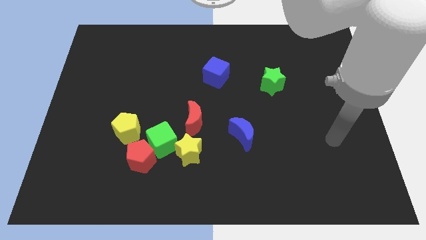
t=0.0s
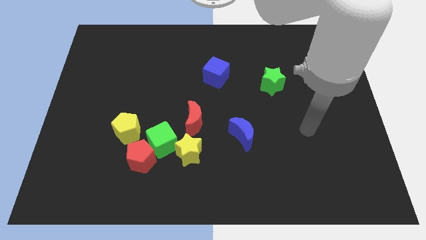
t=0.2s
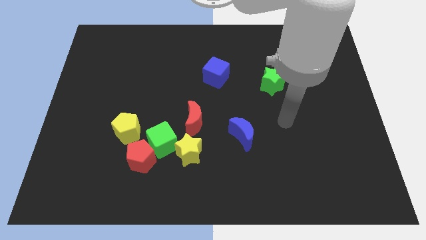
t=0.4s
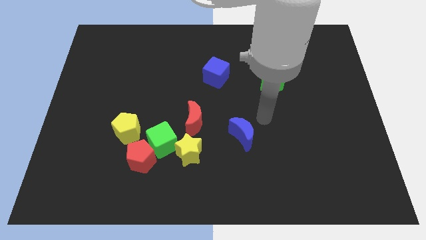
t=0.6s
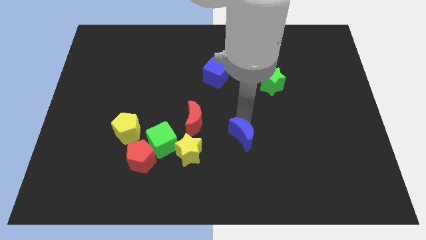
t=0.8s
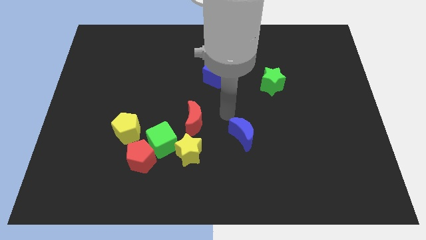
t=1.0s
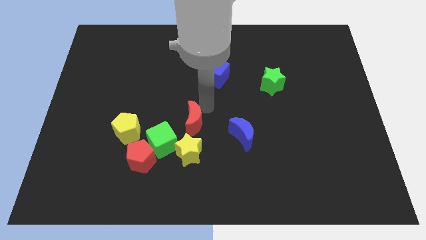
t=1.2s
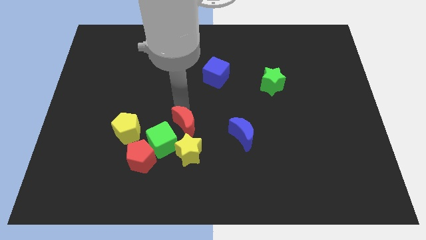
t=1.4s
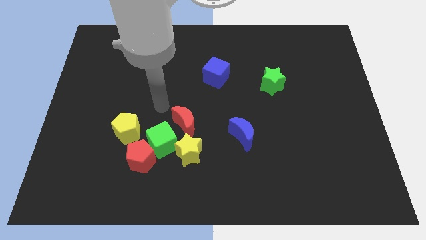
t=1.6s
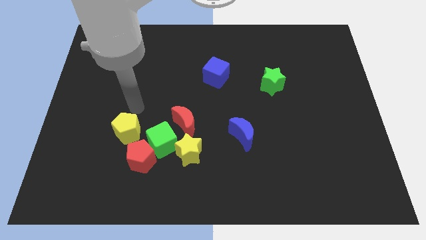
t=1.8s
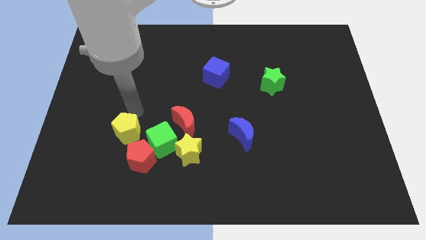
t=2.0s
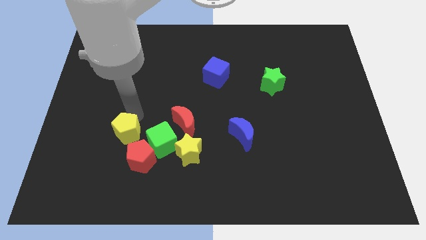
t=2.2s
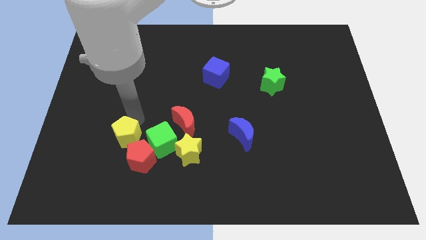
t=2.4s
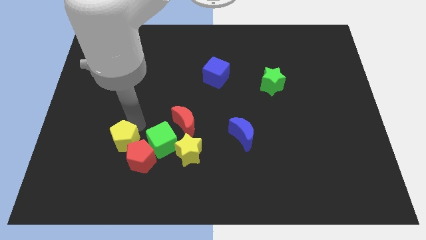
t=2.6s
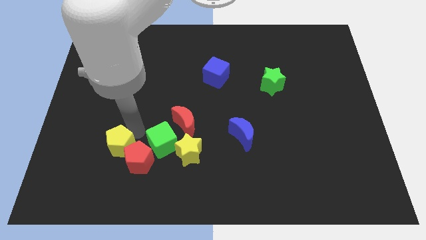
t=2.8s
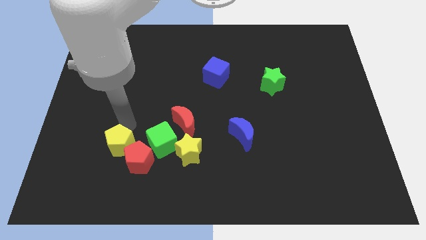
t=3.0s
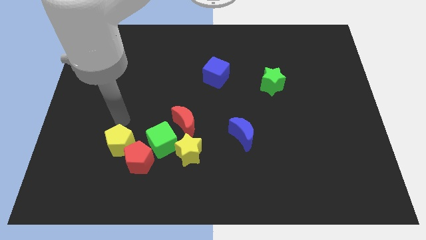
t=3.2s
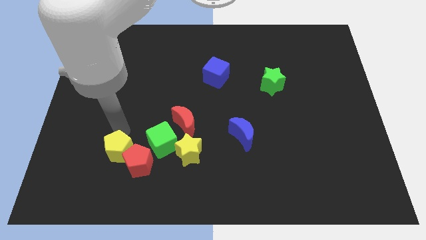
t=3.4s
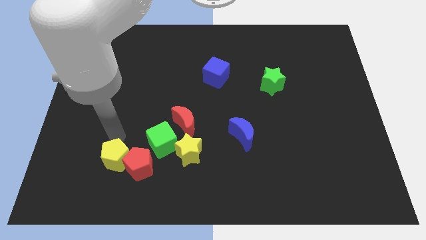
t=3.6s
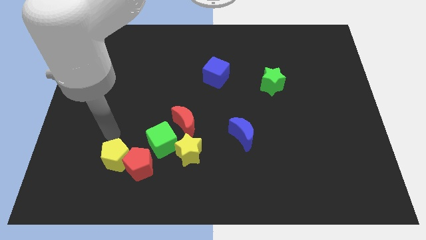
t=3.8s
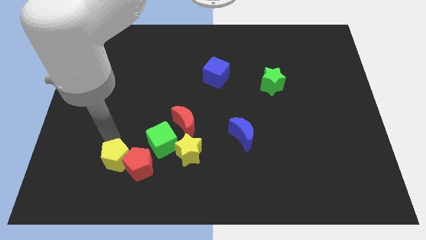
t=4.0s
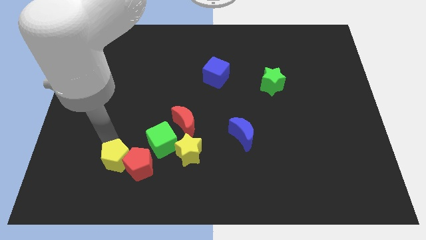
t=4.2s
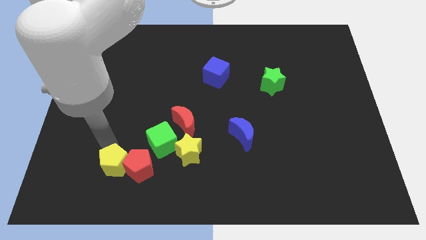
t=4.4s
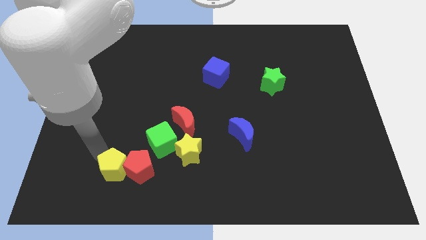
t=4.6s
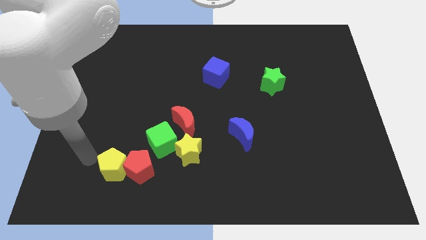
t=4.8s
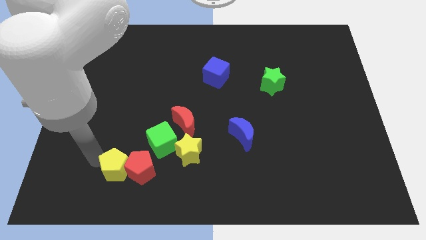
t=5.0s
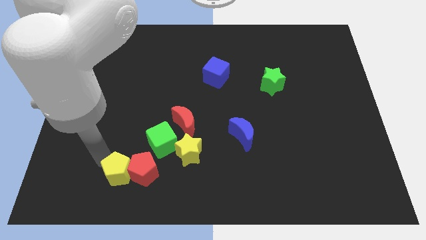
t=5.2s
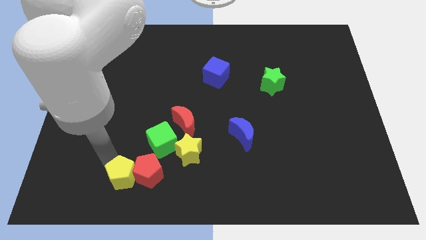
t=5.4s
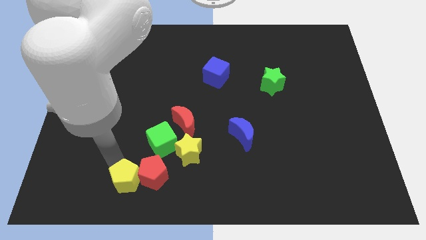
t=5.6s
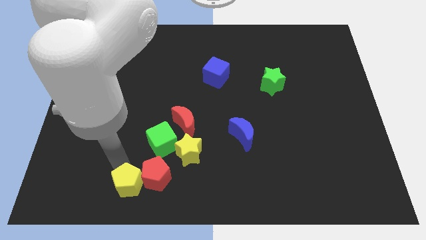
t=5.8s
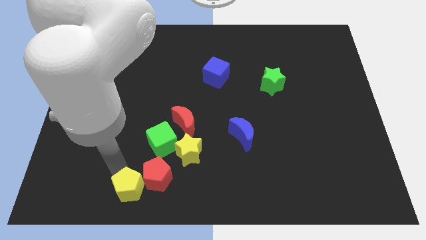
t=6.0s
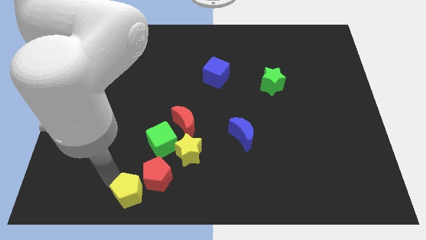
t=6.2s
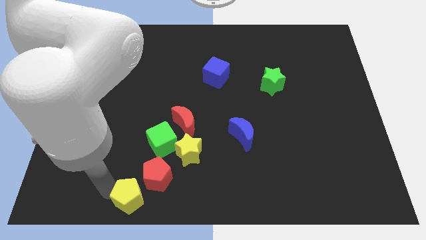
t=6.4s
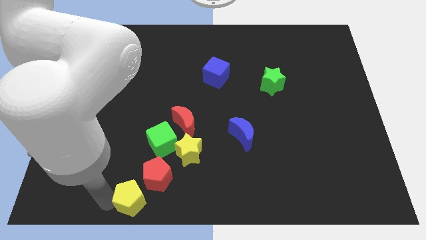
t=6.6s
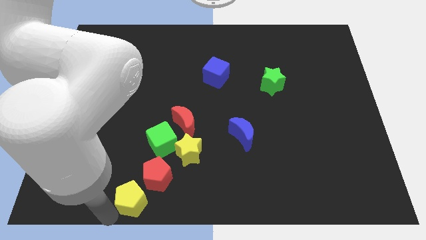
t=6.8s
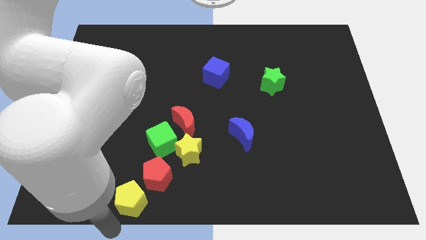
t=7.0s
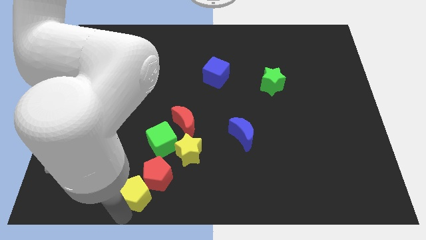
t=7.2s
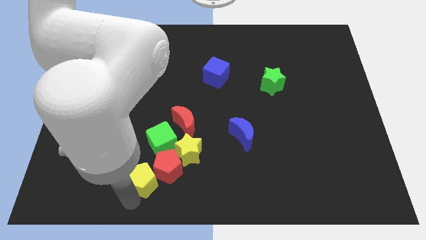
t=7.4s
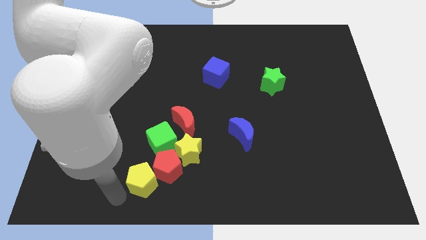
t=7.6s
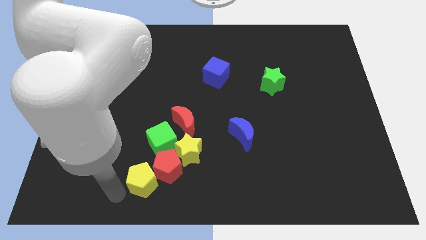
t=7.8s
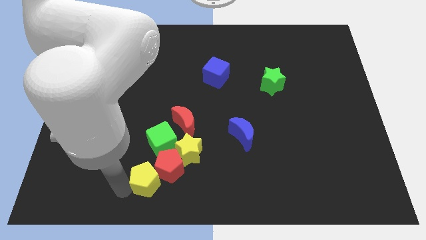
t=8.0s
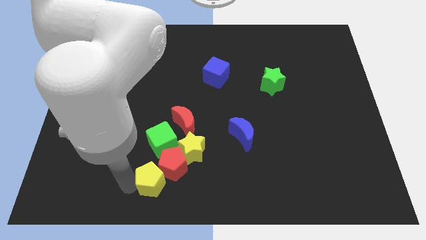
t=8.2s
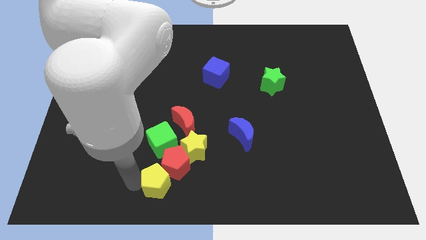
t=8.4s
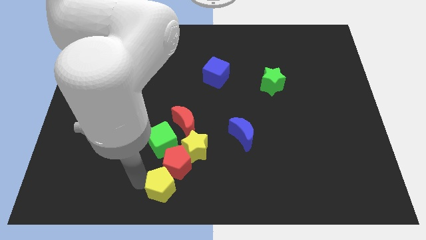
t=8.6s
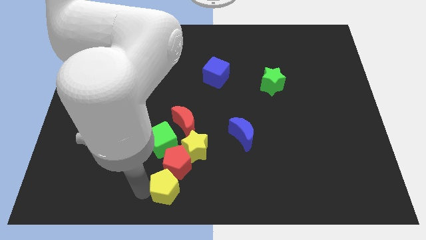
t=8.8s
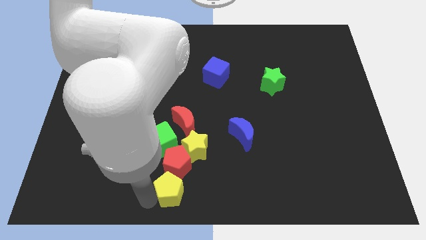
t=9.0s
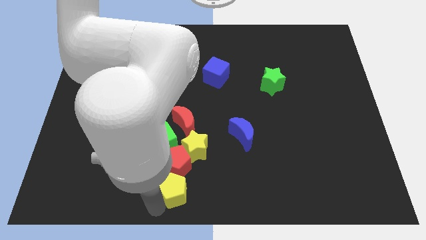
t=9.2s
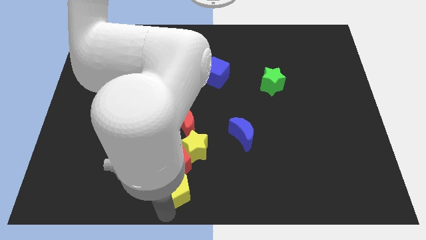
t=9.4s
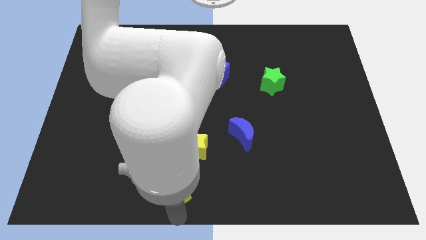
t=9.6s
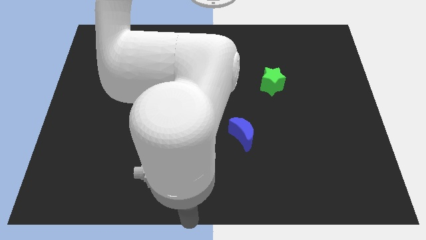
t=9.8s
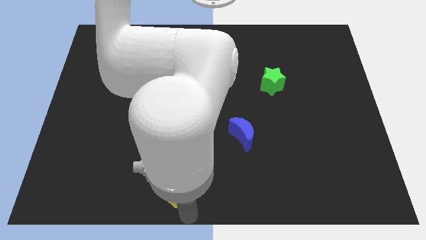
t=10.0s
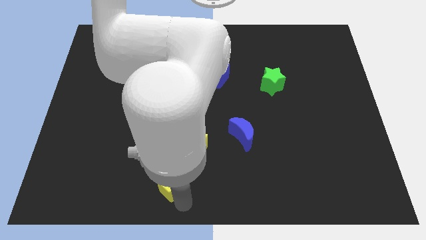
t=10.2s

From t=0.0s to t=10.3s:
slide the yellow pentagon diagonally down and to the right of the green cube

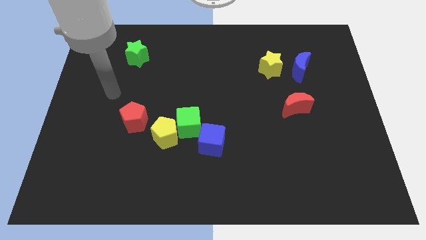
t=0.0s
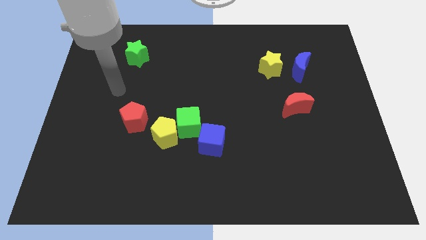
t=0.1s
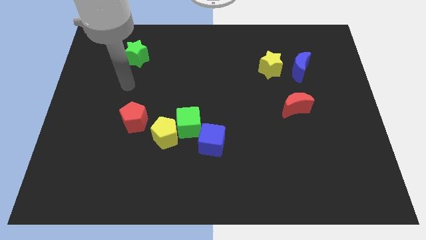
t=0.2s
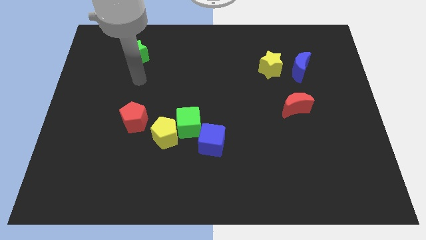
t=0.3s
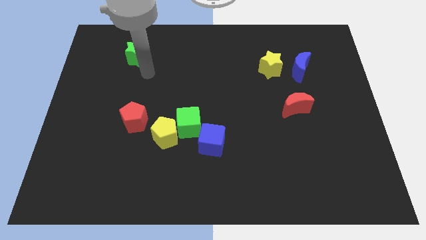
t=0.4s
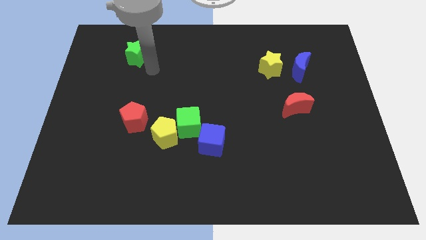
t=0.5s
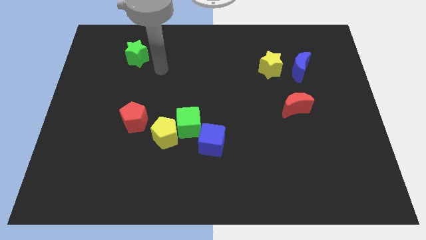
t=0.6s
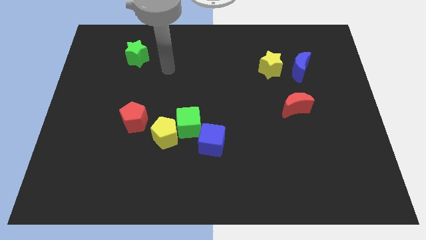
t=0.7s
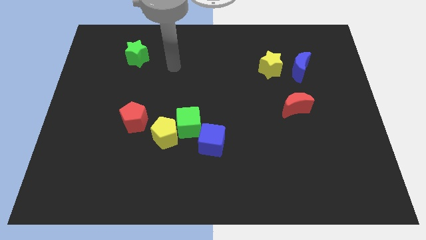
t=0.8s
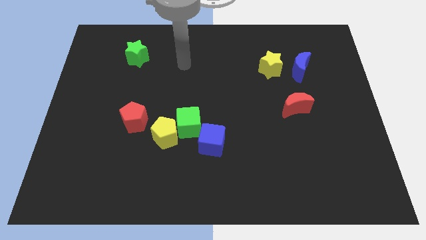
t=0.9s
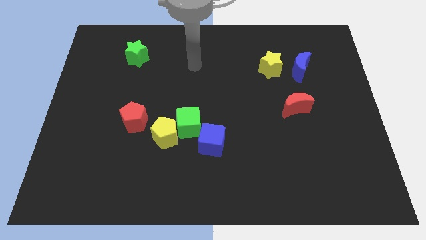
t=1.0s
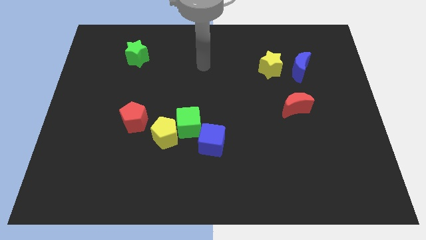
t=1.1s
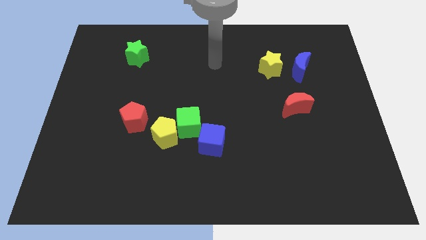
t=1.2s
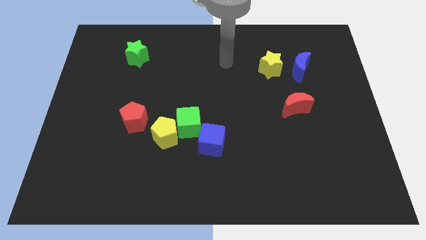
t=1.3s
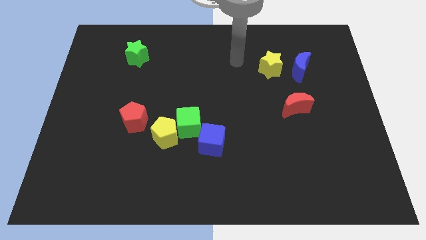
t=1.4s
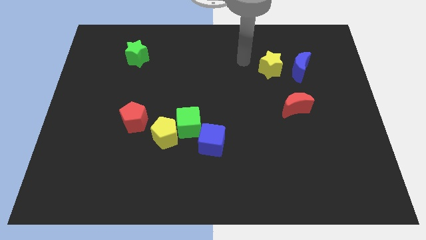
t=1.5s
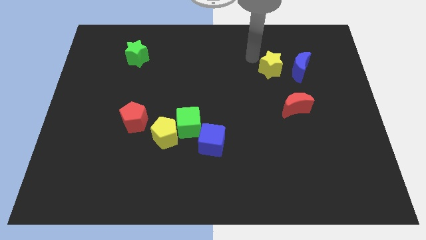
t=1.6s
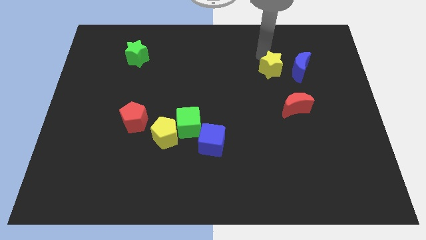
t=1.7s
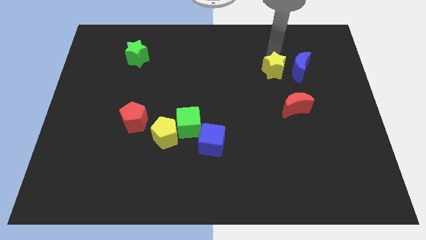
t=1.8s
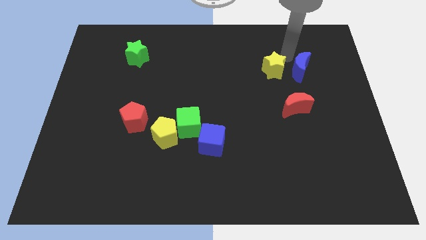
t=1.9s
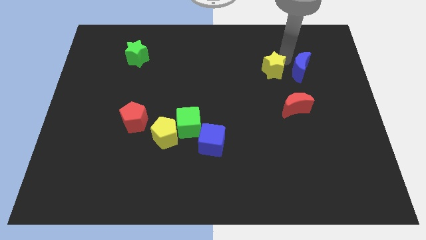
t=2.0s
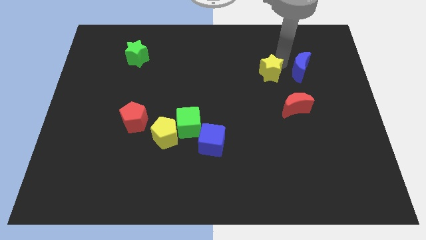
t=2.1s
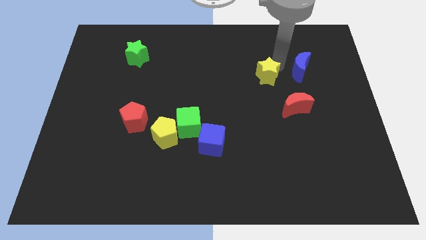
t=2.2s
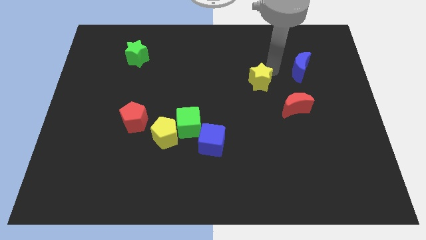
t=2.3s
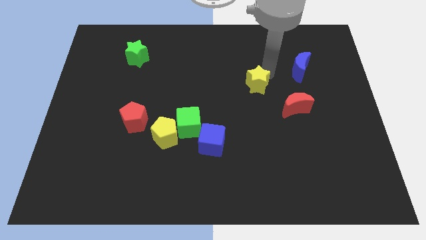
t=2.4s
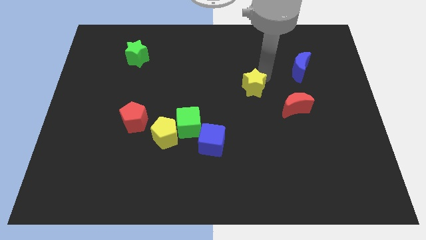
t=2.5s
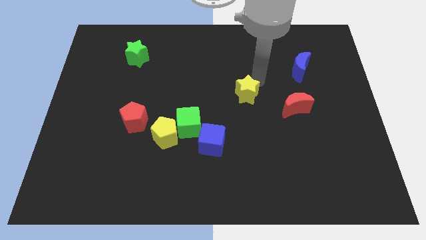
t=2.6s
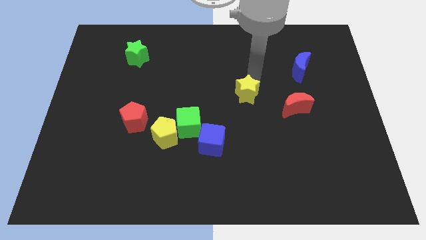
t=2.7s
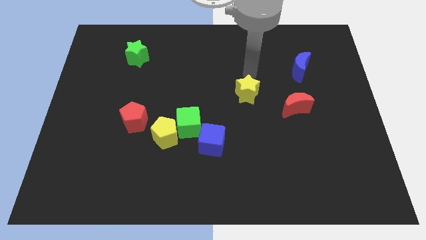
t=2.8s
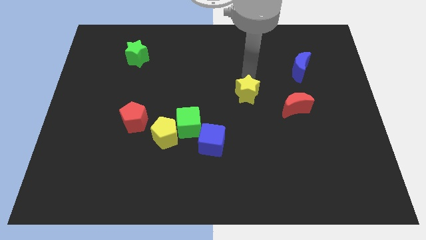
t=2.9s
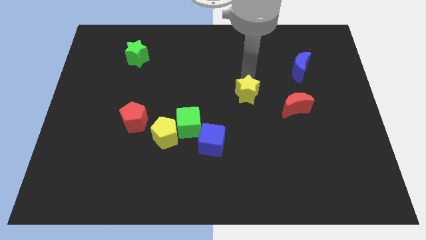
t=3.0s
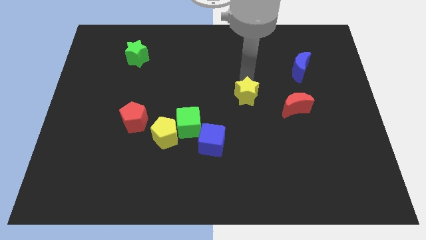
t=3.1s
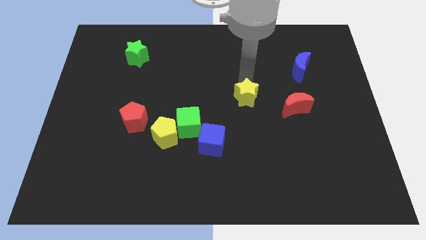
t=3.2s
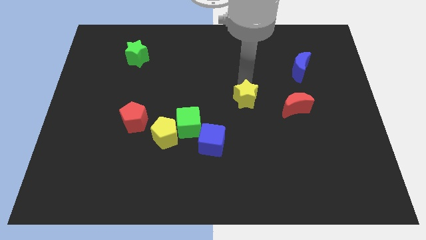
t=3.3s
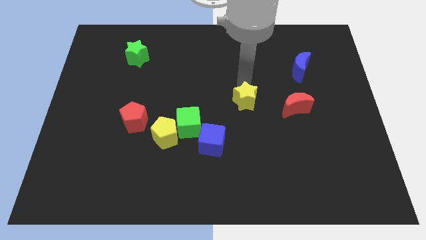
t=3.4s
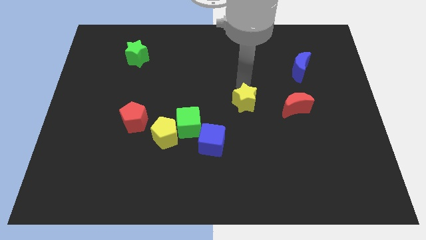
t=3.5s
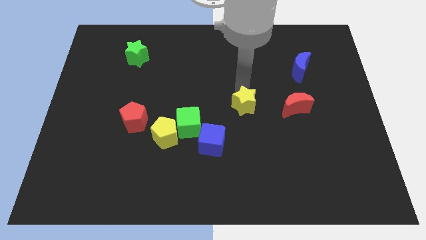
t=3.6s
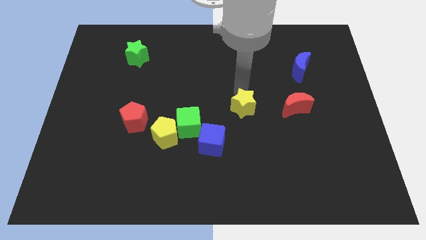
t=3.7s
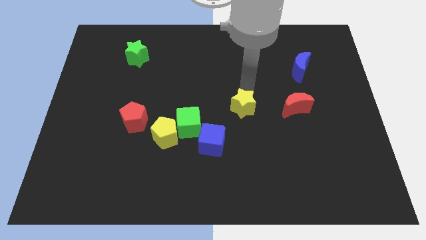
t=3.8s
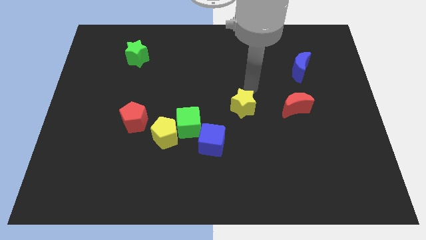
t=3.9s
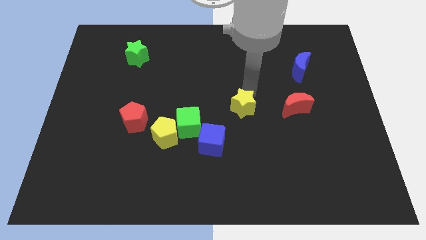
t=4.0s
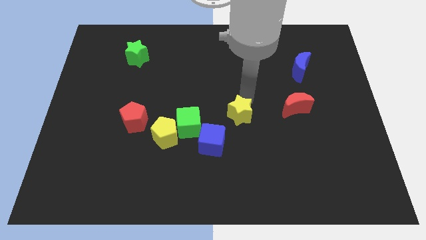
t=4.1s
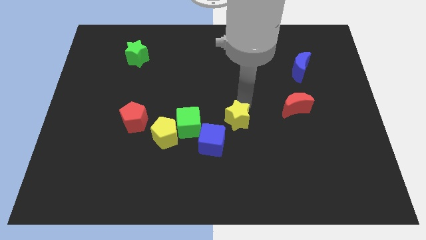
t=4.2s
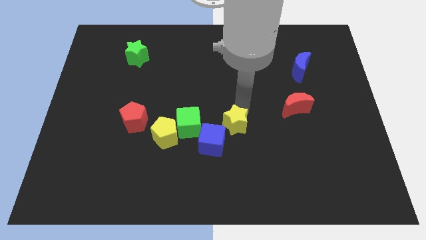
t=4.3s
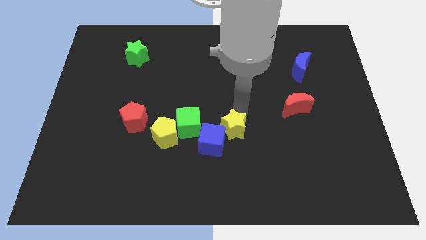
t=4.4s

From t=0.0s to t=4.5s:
push the yellow star just right of the yellow pentagon
